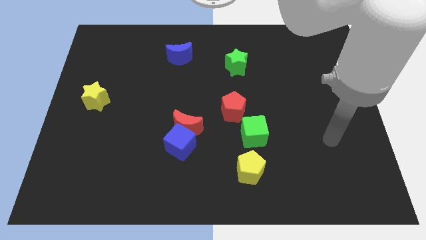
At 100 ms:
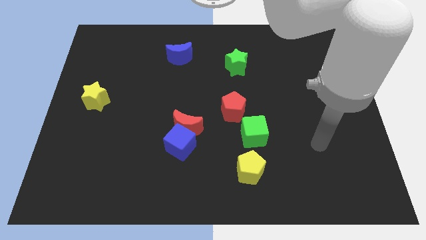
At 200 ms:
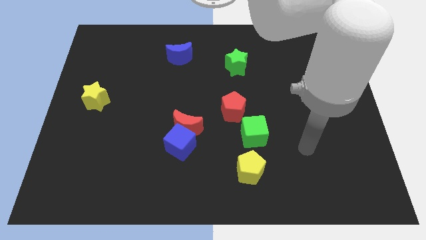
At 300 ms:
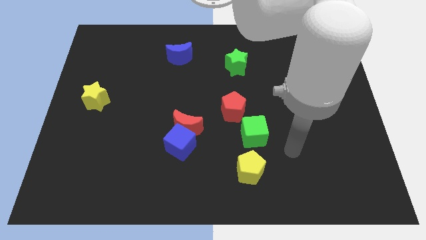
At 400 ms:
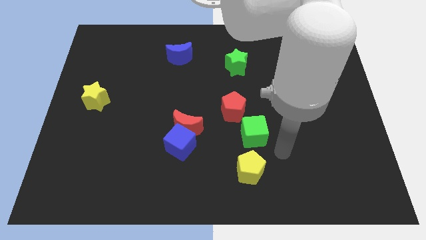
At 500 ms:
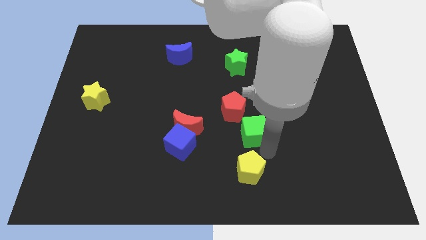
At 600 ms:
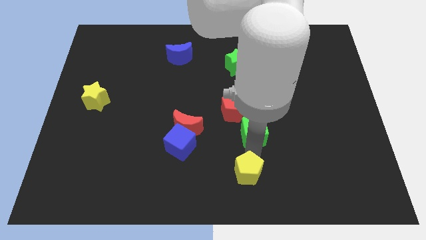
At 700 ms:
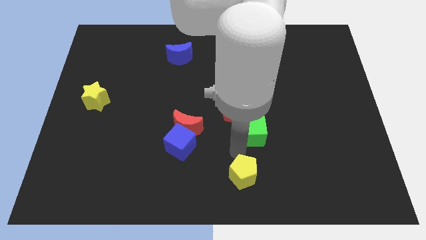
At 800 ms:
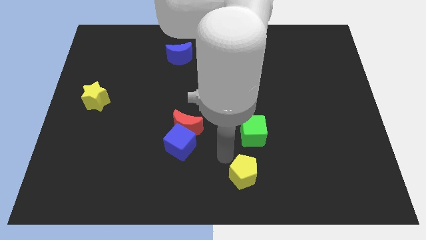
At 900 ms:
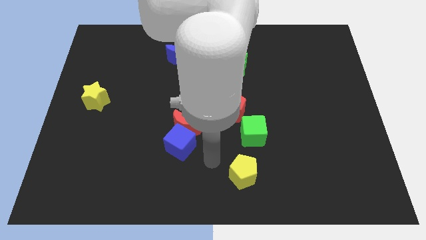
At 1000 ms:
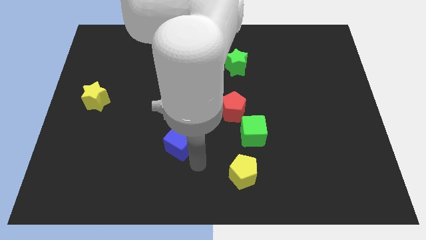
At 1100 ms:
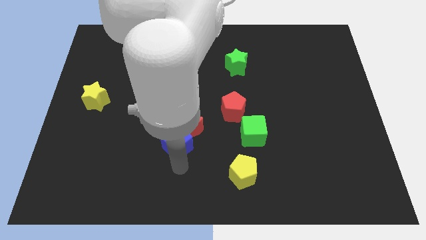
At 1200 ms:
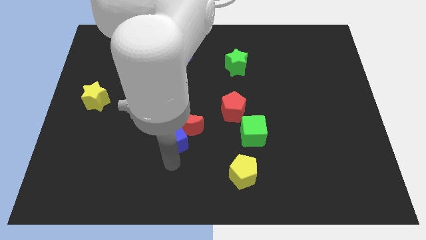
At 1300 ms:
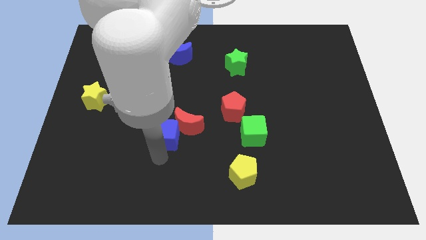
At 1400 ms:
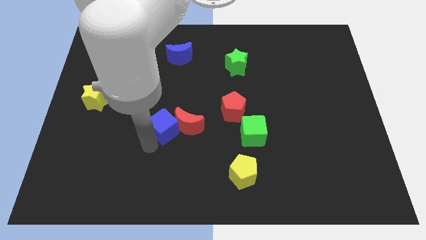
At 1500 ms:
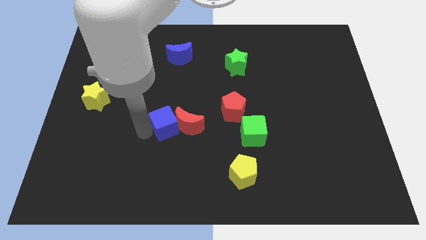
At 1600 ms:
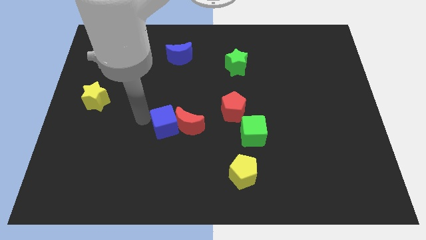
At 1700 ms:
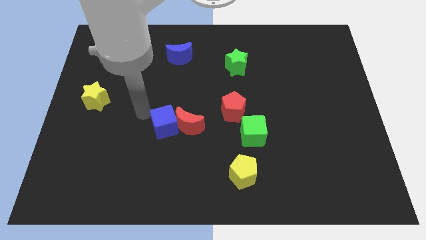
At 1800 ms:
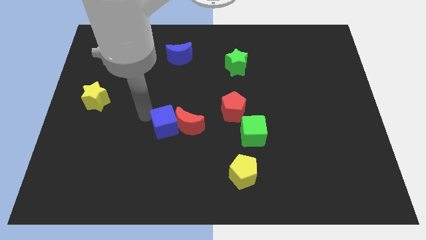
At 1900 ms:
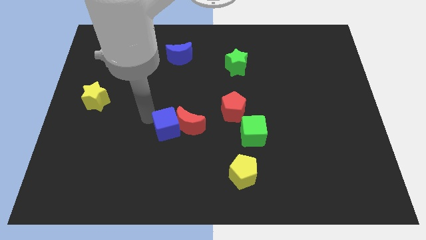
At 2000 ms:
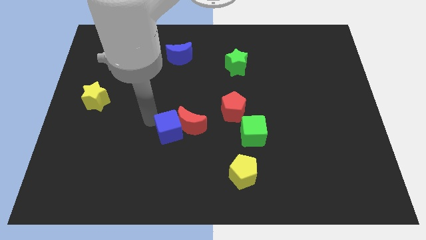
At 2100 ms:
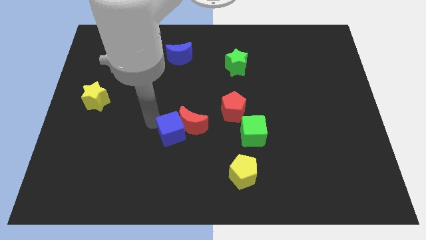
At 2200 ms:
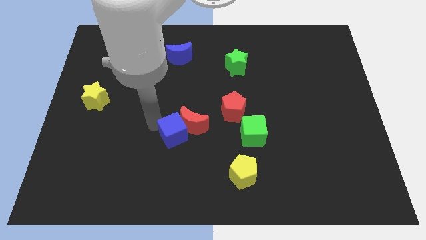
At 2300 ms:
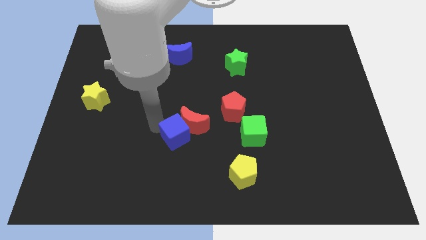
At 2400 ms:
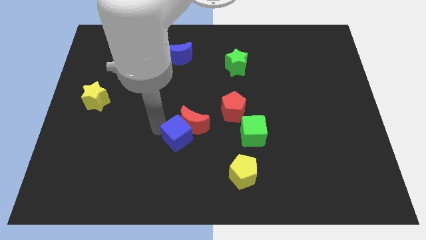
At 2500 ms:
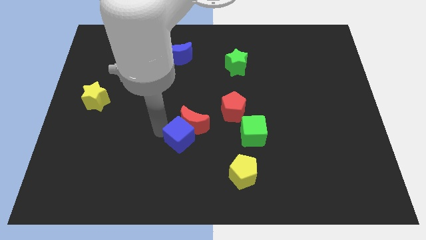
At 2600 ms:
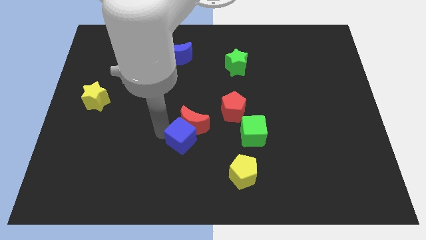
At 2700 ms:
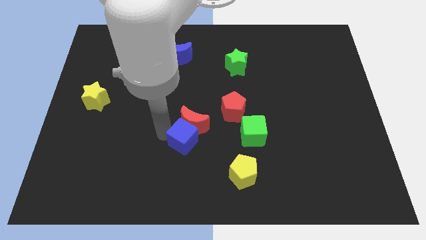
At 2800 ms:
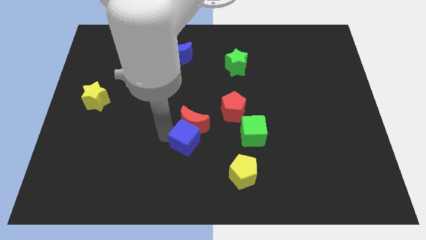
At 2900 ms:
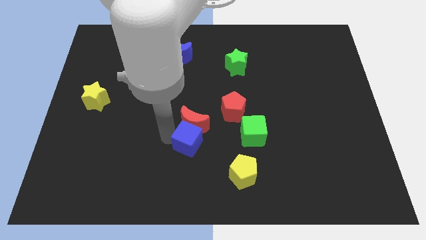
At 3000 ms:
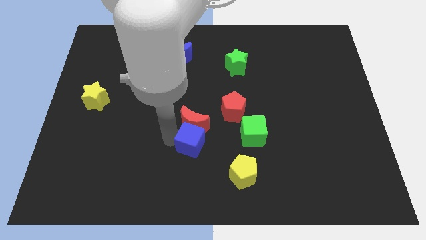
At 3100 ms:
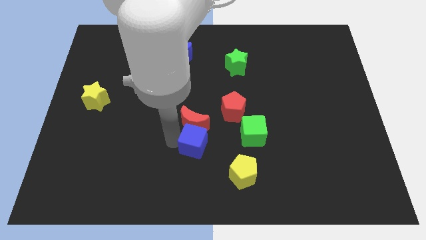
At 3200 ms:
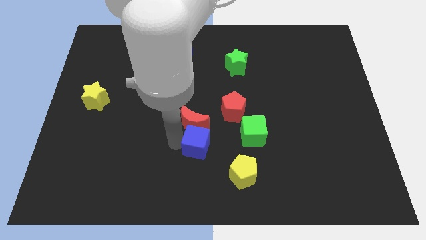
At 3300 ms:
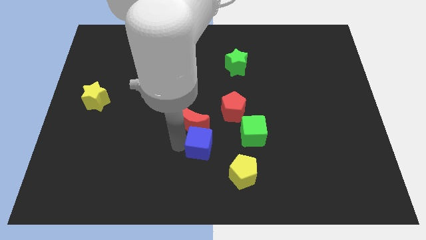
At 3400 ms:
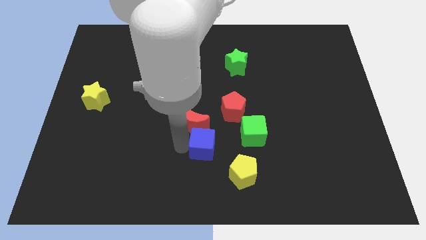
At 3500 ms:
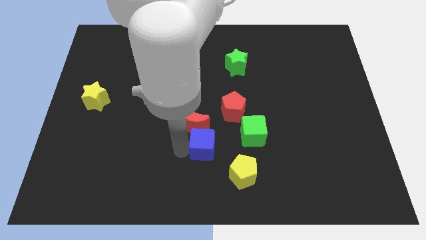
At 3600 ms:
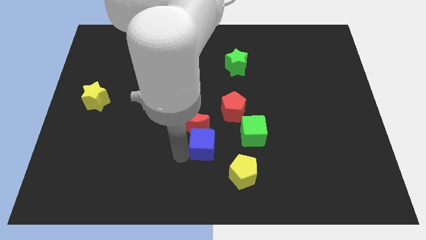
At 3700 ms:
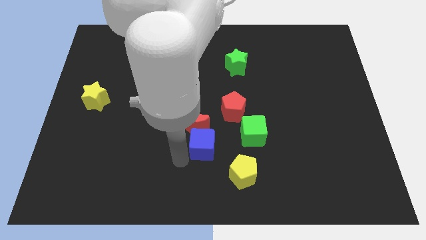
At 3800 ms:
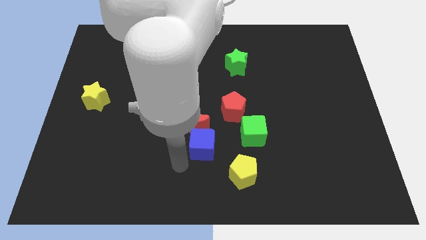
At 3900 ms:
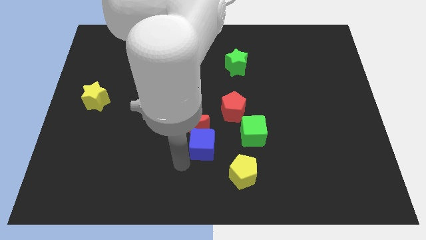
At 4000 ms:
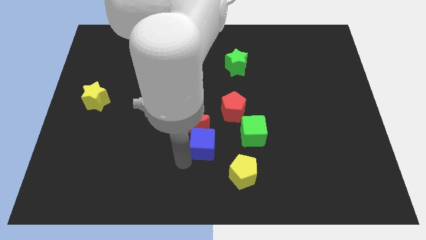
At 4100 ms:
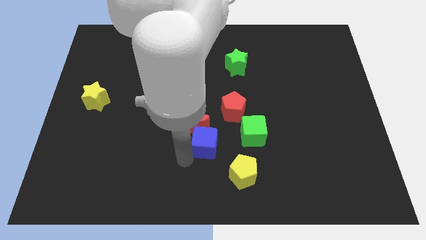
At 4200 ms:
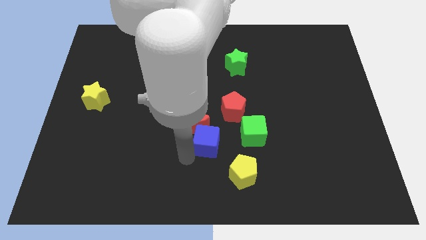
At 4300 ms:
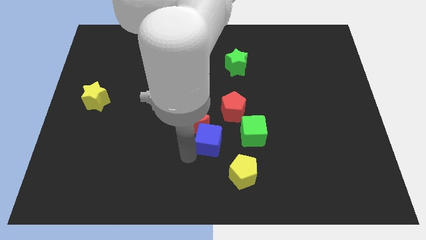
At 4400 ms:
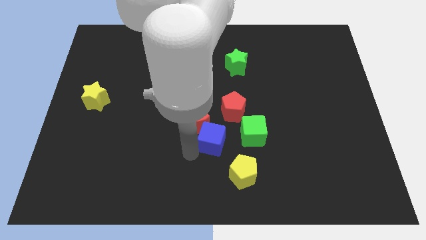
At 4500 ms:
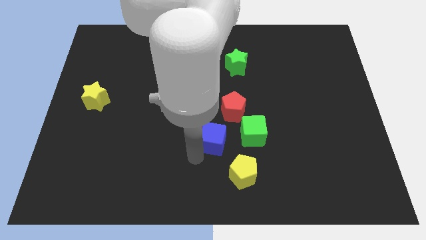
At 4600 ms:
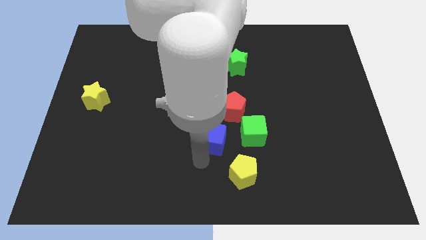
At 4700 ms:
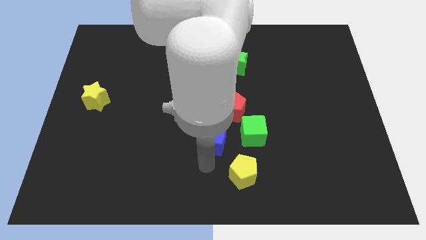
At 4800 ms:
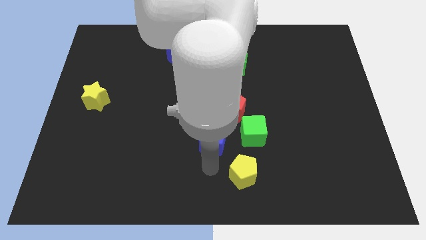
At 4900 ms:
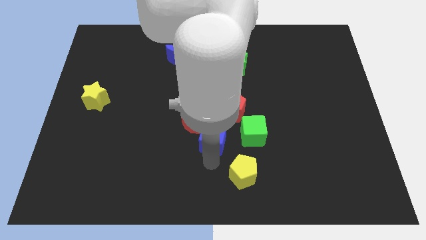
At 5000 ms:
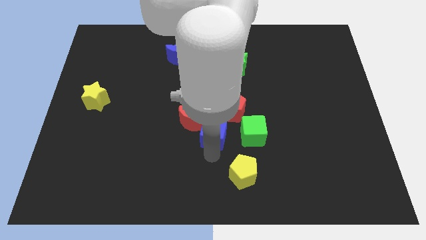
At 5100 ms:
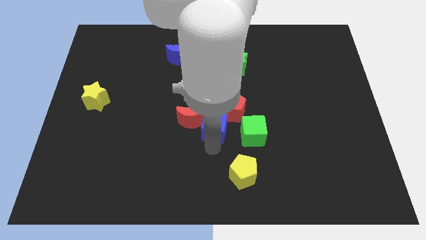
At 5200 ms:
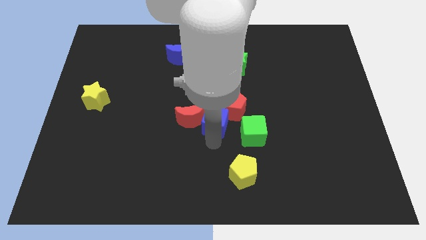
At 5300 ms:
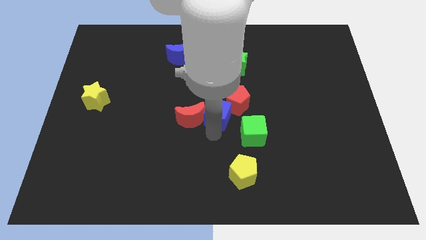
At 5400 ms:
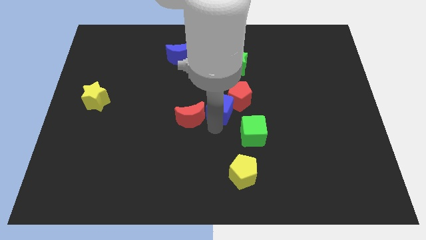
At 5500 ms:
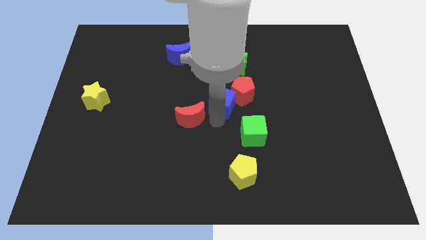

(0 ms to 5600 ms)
move the blue cube to the bottom of the green star
